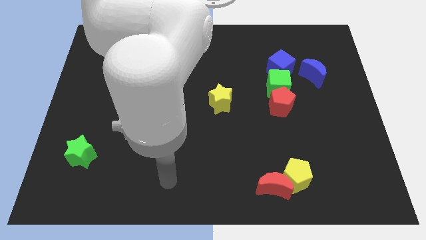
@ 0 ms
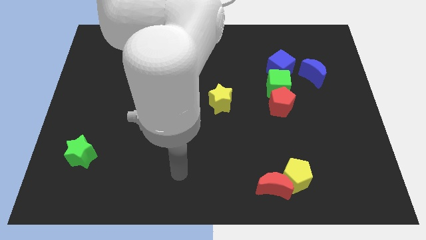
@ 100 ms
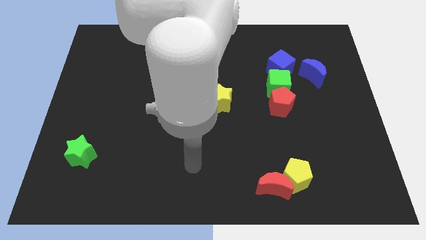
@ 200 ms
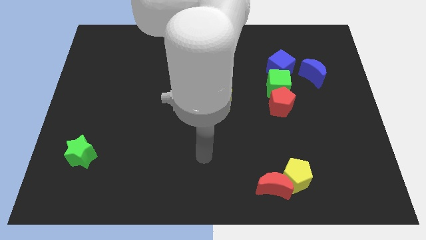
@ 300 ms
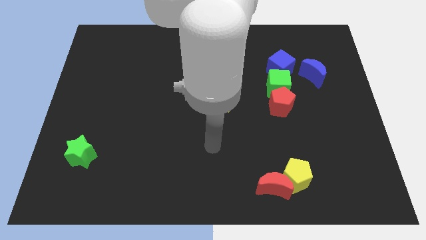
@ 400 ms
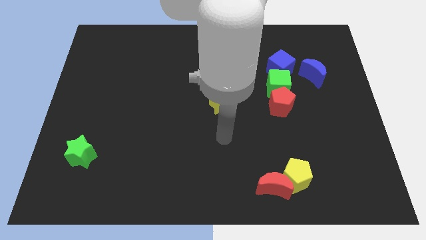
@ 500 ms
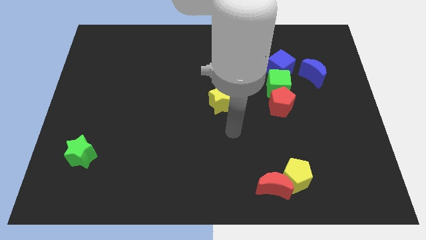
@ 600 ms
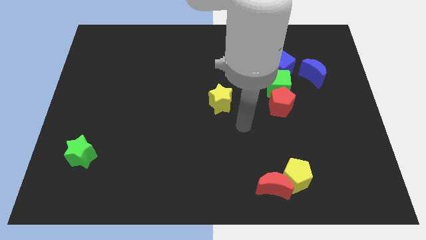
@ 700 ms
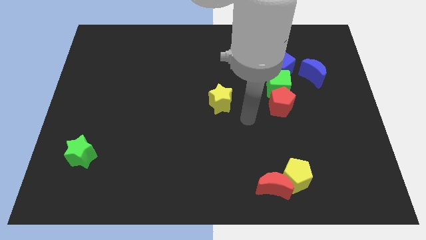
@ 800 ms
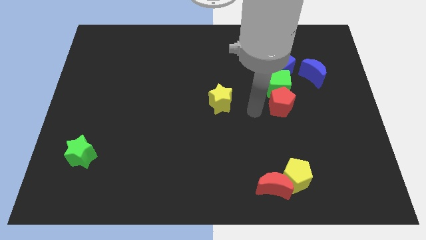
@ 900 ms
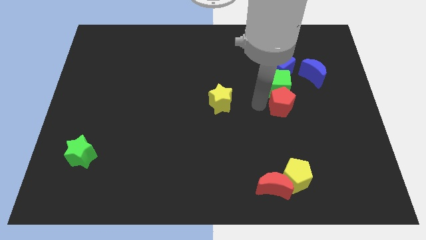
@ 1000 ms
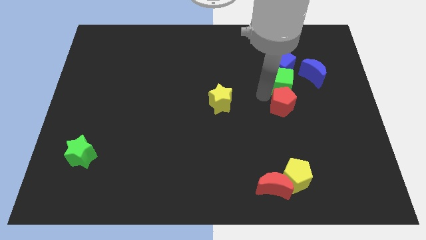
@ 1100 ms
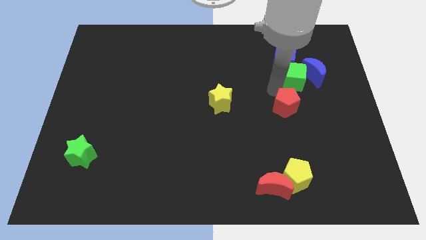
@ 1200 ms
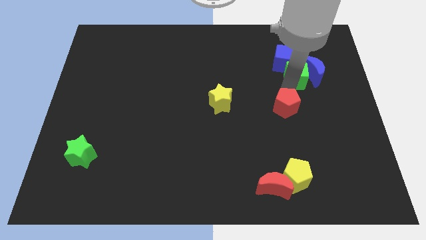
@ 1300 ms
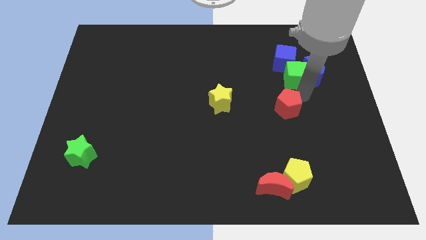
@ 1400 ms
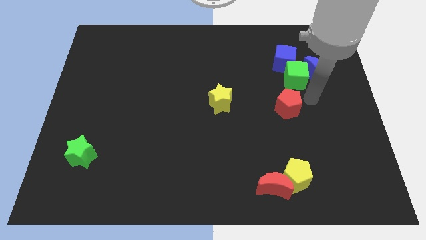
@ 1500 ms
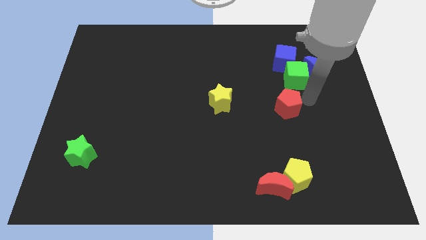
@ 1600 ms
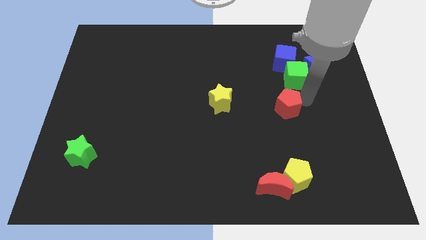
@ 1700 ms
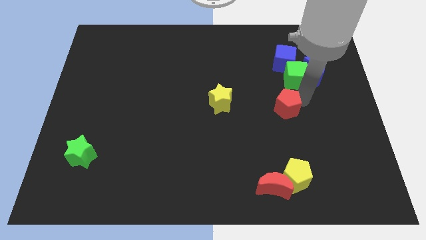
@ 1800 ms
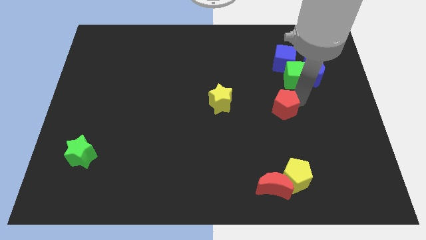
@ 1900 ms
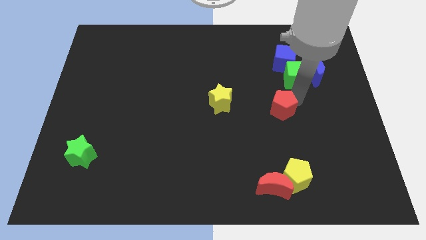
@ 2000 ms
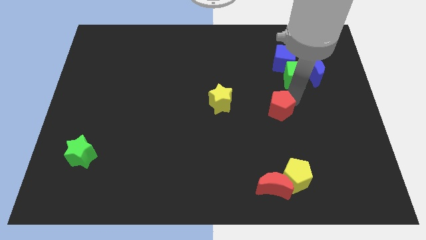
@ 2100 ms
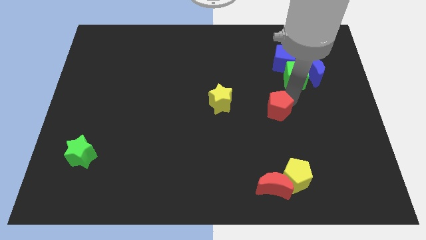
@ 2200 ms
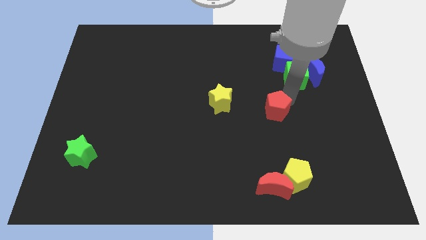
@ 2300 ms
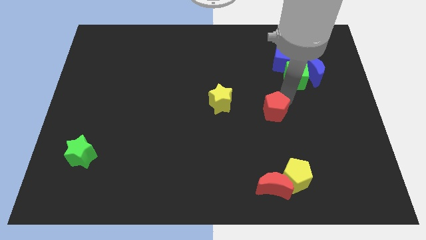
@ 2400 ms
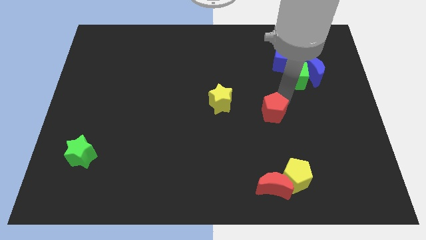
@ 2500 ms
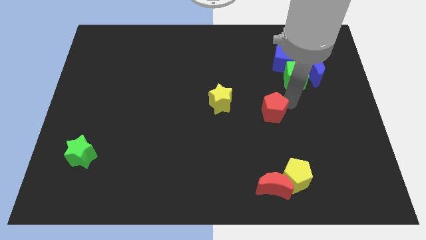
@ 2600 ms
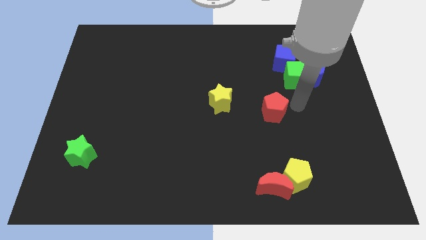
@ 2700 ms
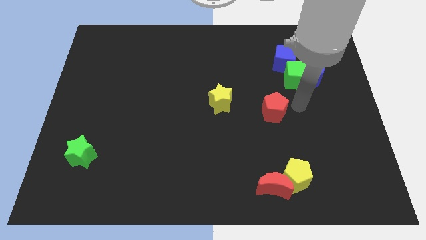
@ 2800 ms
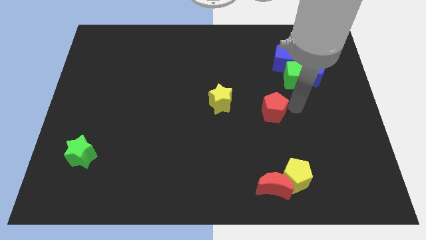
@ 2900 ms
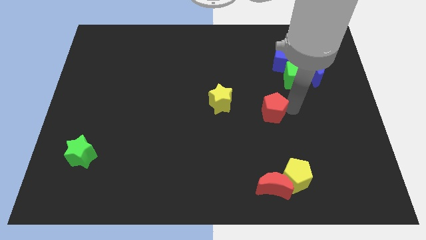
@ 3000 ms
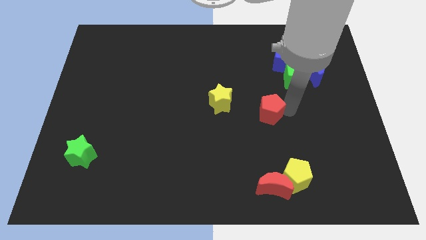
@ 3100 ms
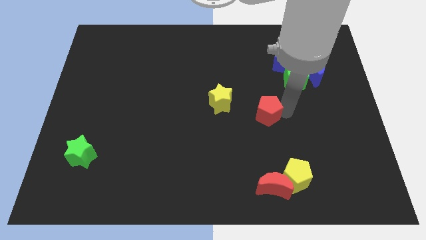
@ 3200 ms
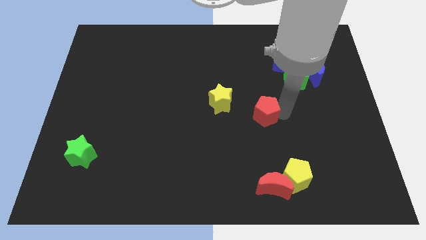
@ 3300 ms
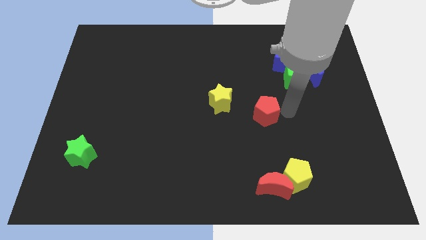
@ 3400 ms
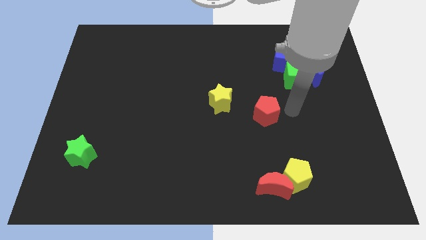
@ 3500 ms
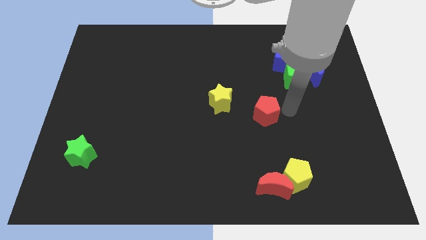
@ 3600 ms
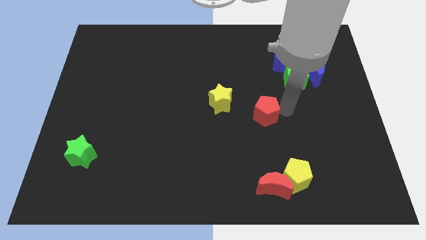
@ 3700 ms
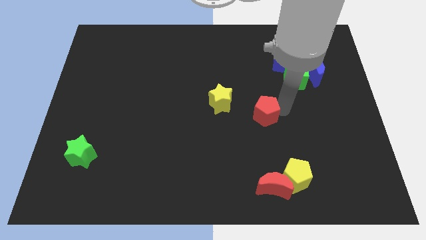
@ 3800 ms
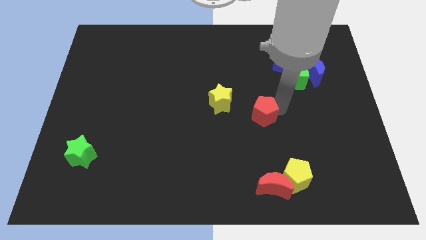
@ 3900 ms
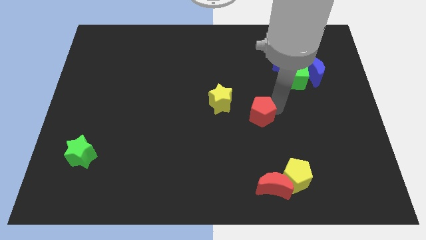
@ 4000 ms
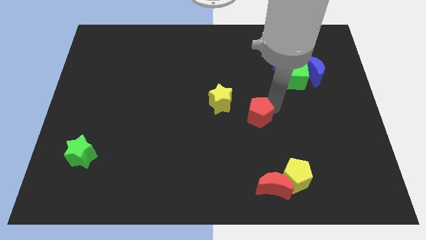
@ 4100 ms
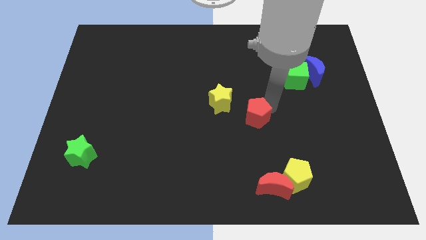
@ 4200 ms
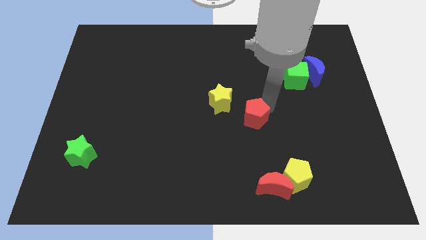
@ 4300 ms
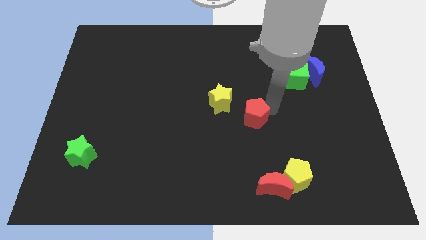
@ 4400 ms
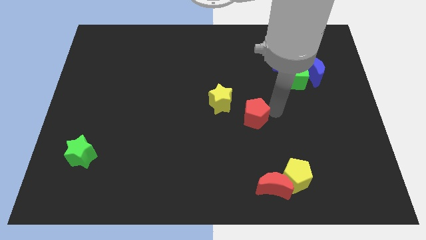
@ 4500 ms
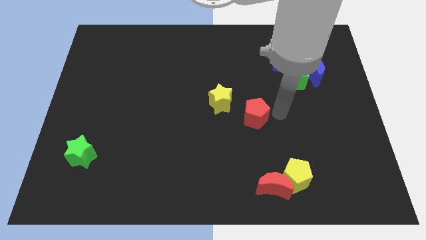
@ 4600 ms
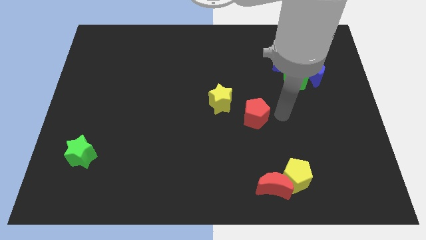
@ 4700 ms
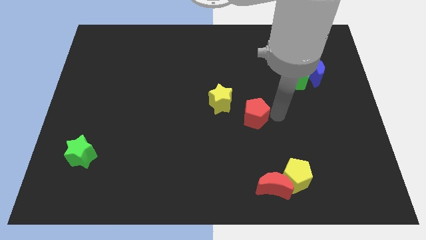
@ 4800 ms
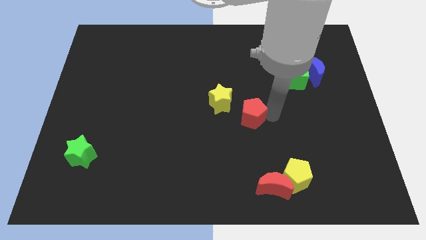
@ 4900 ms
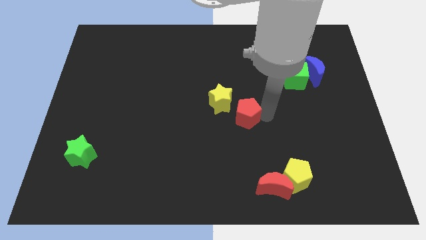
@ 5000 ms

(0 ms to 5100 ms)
move the red pentagon to the left slightly

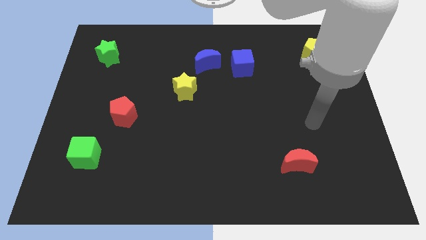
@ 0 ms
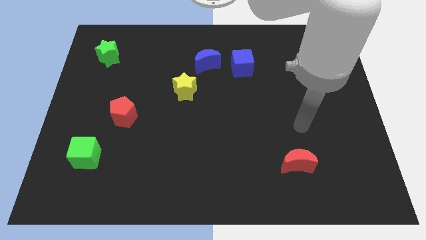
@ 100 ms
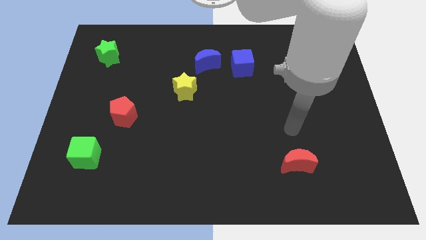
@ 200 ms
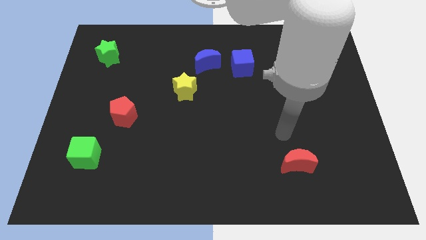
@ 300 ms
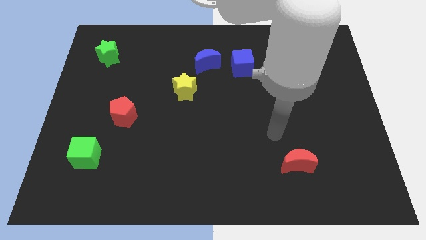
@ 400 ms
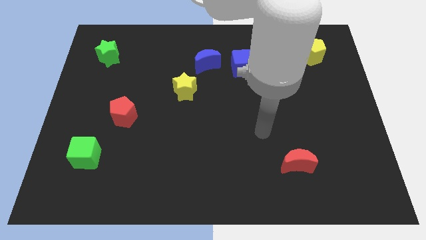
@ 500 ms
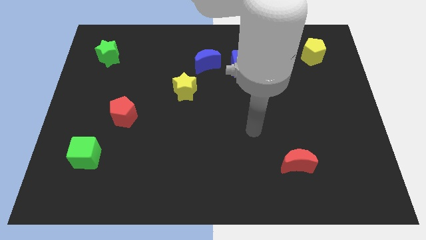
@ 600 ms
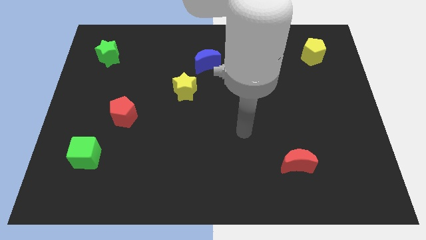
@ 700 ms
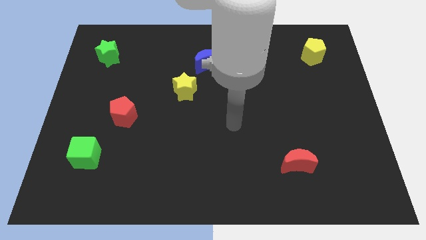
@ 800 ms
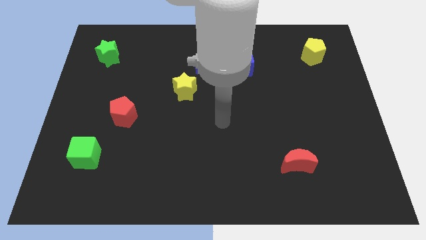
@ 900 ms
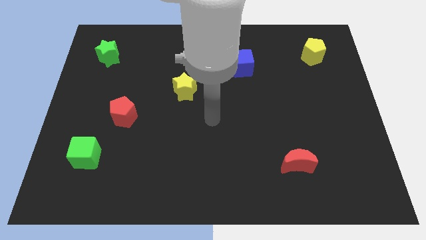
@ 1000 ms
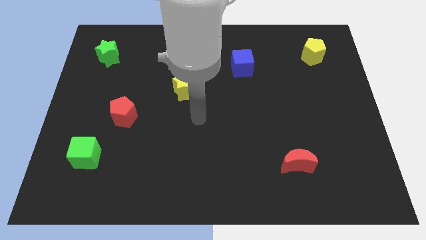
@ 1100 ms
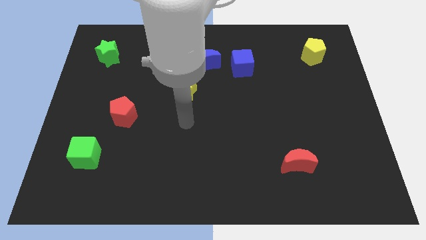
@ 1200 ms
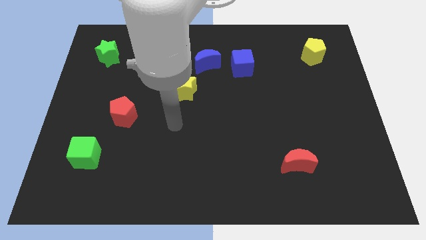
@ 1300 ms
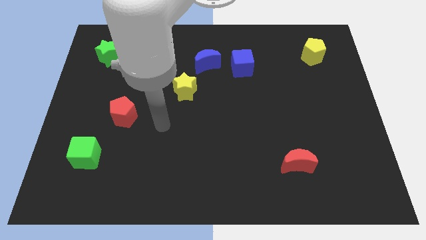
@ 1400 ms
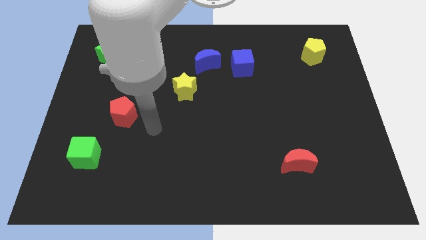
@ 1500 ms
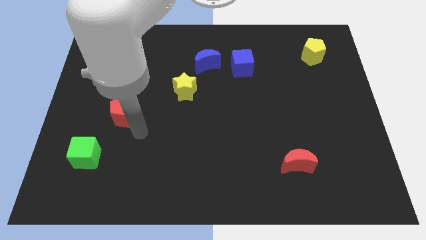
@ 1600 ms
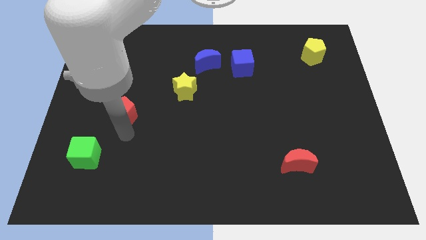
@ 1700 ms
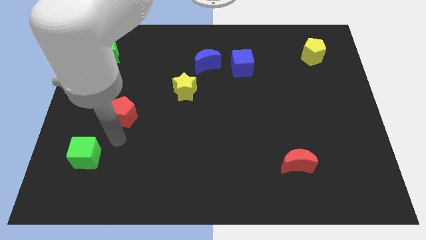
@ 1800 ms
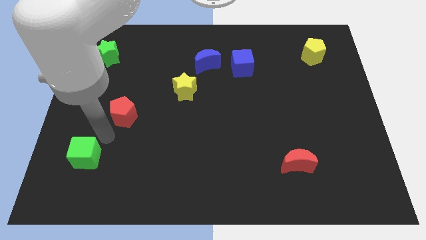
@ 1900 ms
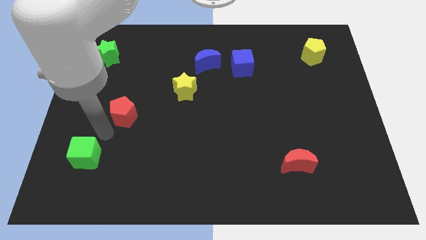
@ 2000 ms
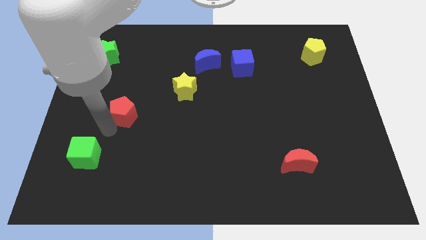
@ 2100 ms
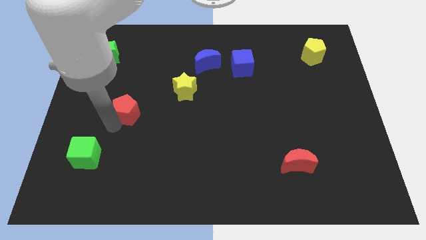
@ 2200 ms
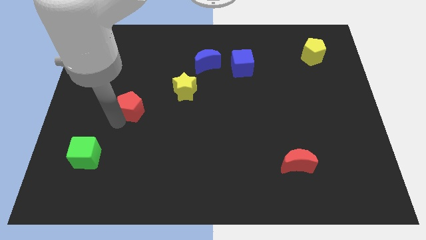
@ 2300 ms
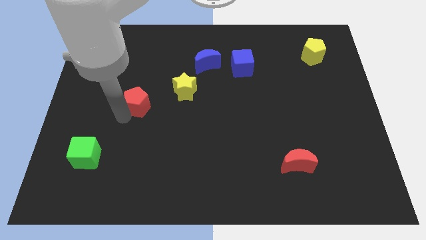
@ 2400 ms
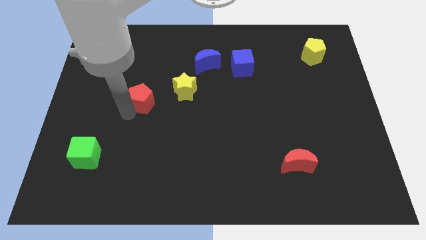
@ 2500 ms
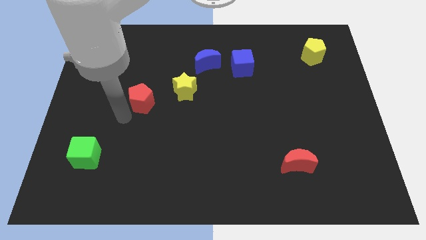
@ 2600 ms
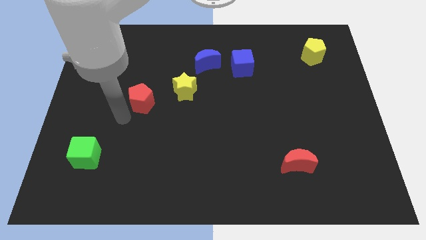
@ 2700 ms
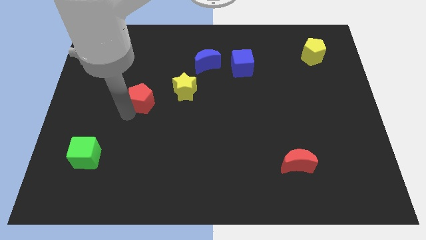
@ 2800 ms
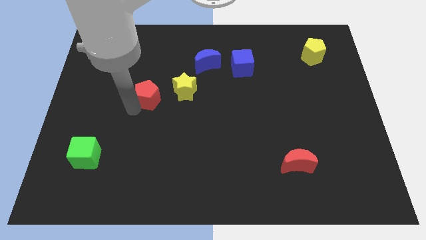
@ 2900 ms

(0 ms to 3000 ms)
move the red pentagon upwards and then right slightly

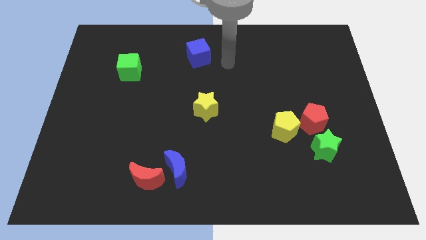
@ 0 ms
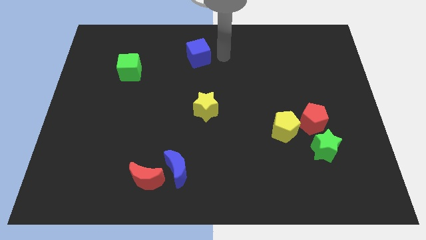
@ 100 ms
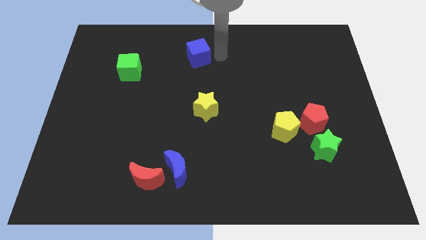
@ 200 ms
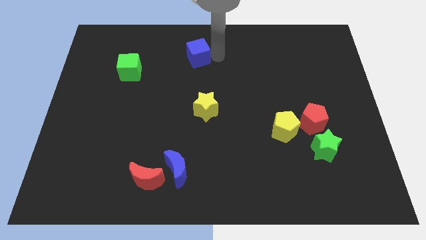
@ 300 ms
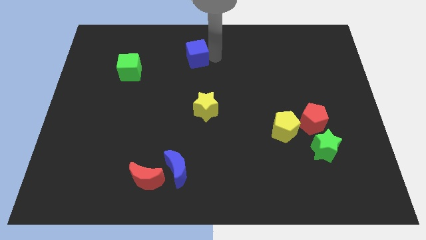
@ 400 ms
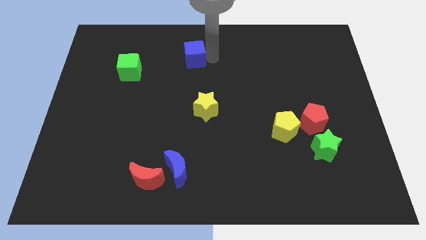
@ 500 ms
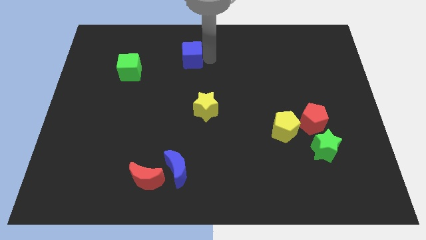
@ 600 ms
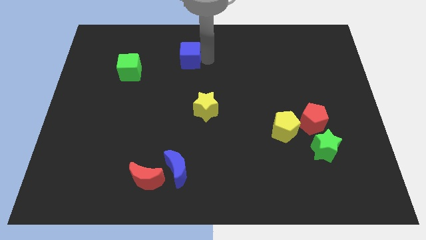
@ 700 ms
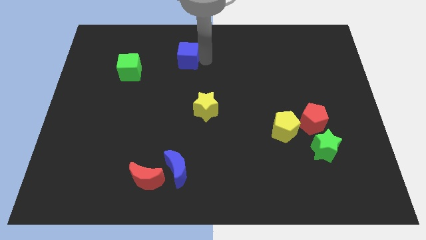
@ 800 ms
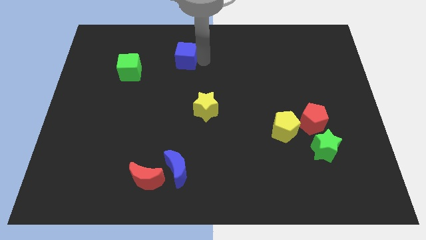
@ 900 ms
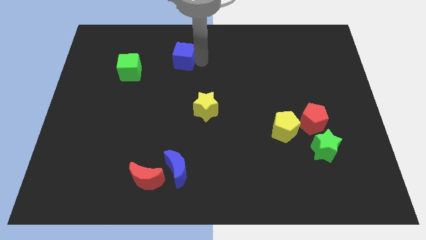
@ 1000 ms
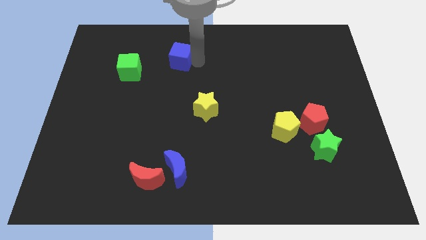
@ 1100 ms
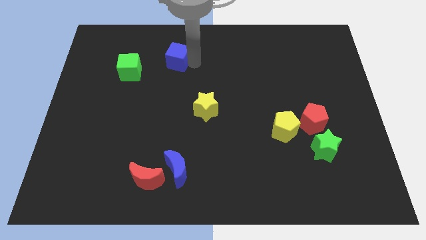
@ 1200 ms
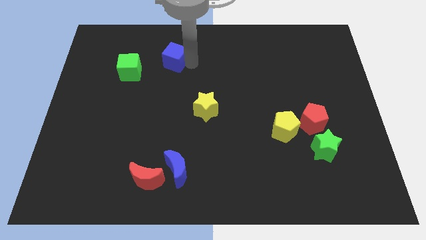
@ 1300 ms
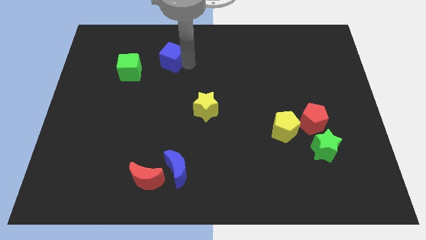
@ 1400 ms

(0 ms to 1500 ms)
slide the blue cube somewhat to the left
